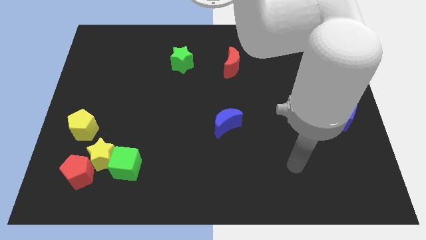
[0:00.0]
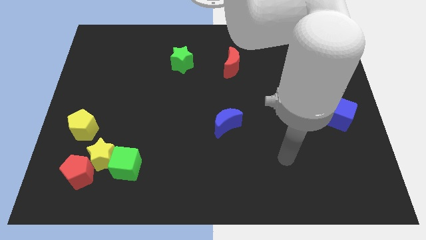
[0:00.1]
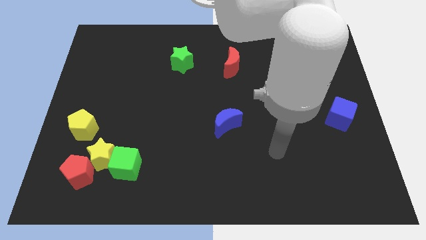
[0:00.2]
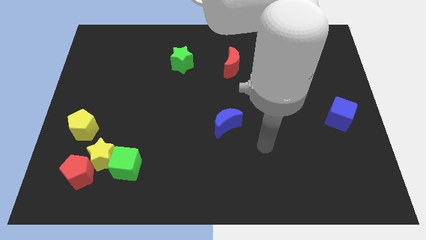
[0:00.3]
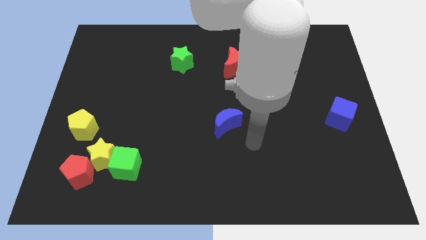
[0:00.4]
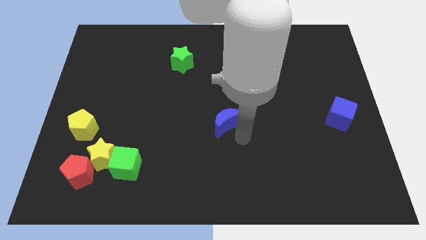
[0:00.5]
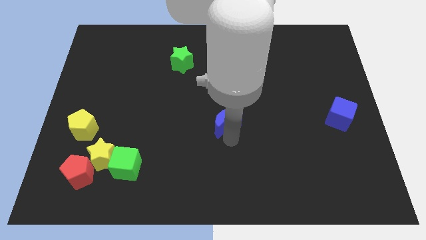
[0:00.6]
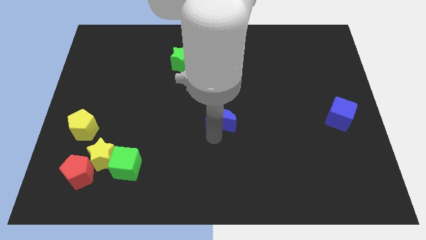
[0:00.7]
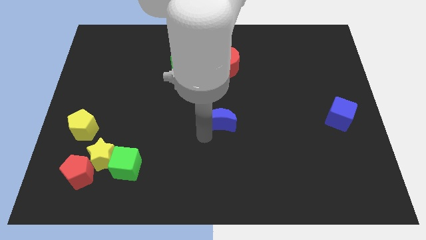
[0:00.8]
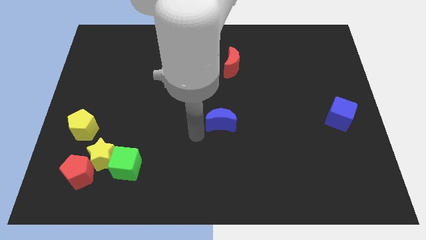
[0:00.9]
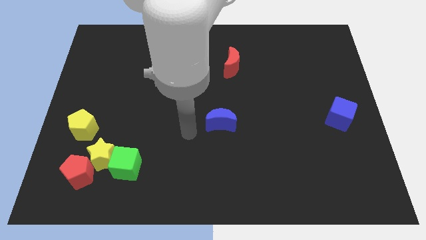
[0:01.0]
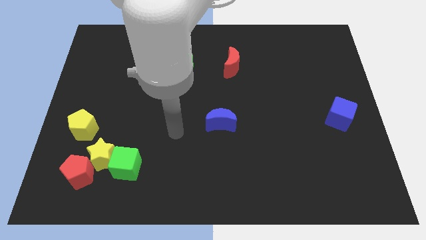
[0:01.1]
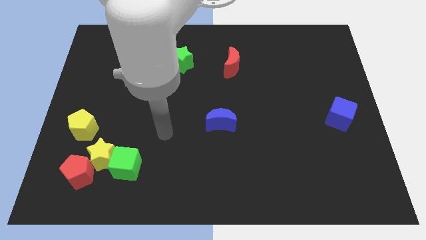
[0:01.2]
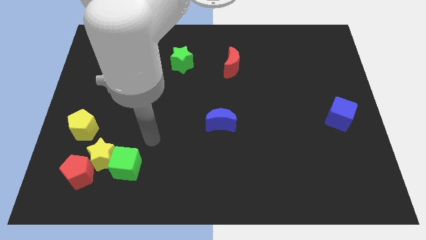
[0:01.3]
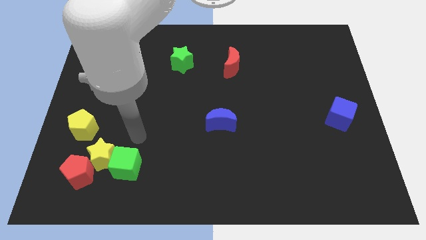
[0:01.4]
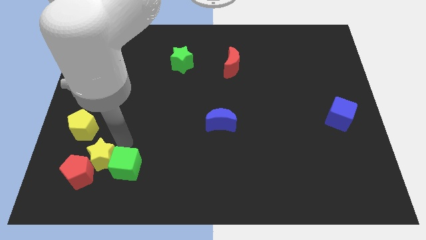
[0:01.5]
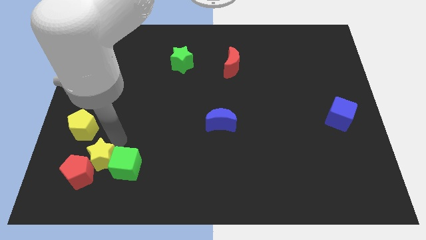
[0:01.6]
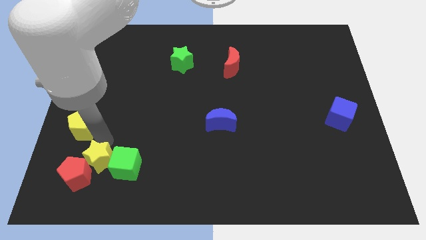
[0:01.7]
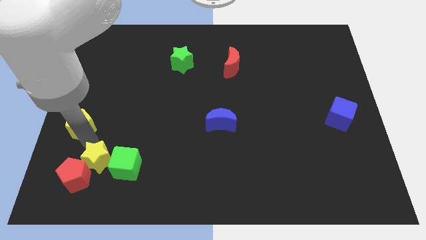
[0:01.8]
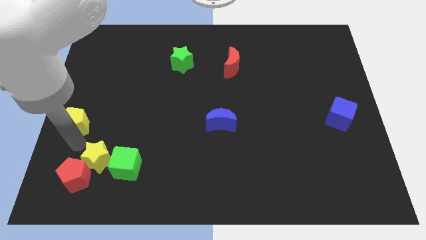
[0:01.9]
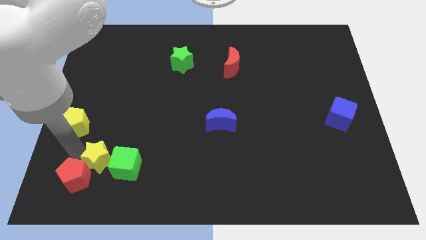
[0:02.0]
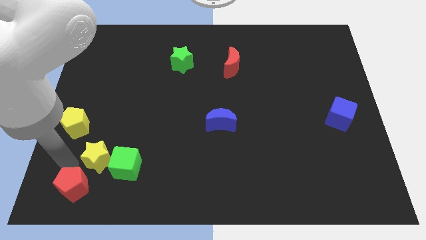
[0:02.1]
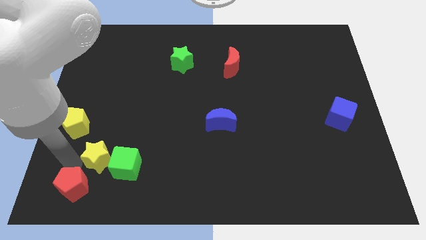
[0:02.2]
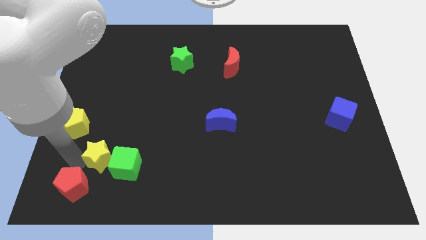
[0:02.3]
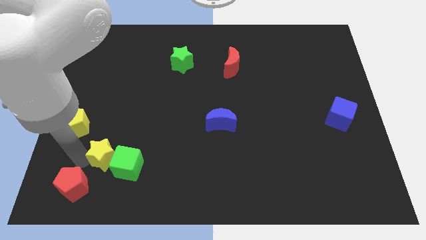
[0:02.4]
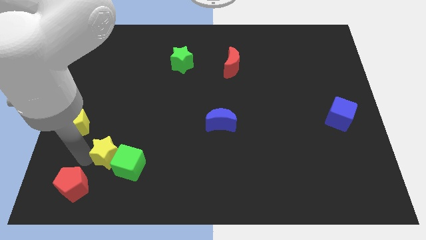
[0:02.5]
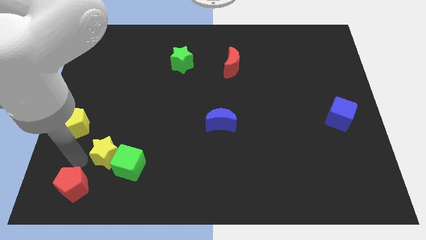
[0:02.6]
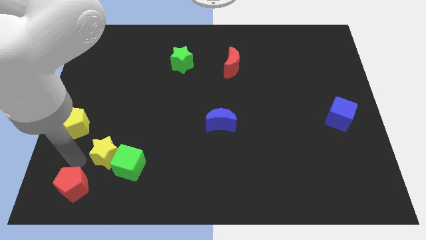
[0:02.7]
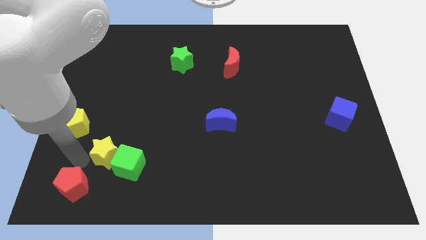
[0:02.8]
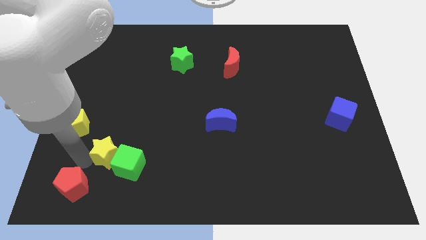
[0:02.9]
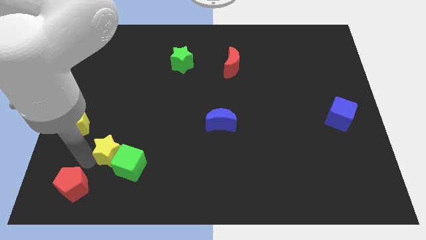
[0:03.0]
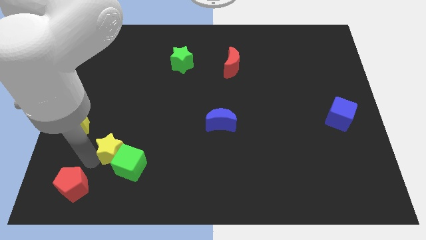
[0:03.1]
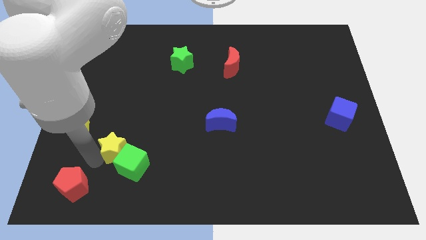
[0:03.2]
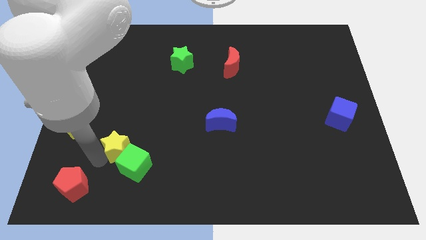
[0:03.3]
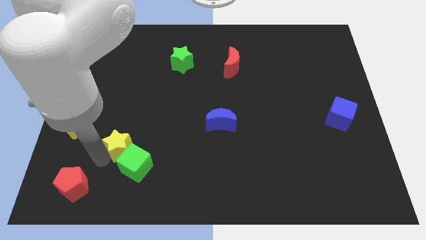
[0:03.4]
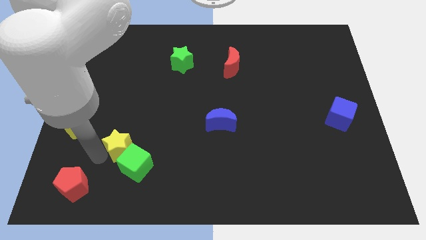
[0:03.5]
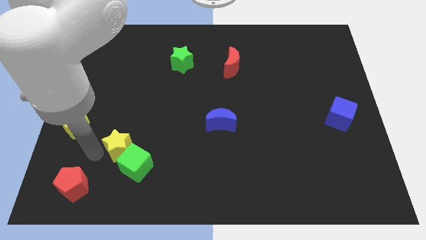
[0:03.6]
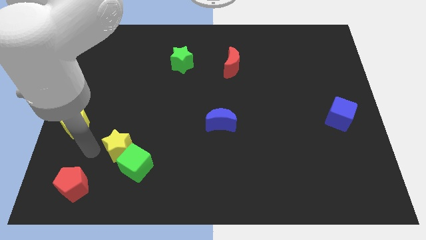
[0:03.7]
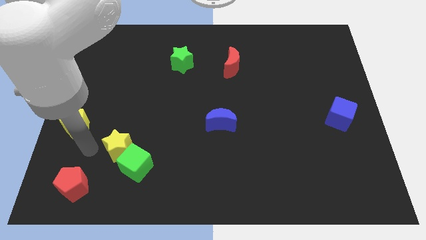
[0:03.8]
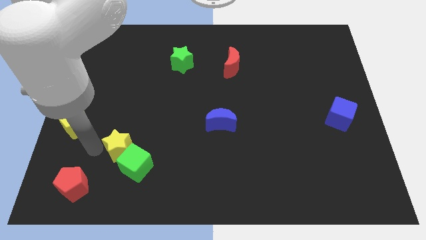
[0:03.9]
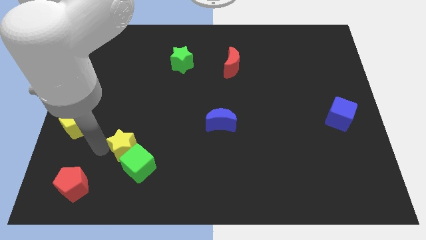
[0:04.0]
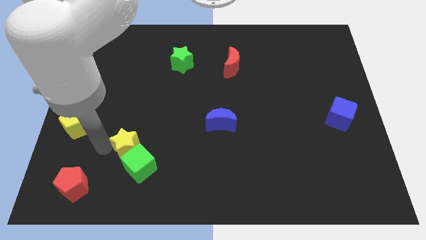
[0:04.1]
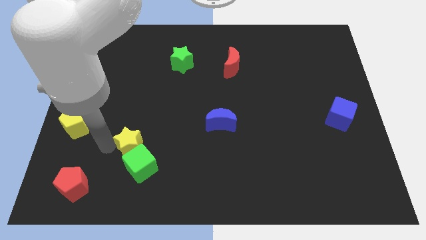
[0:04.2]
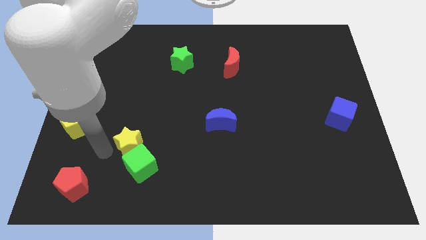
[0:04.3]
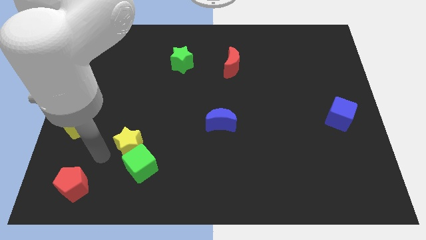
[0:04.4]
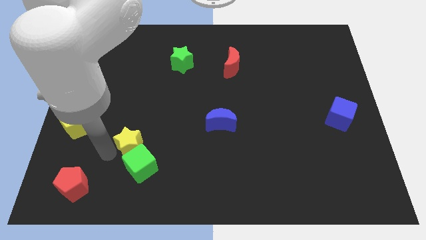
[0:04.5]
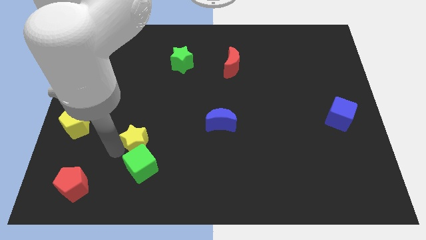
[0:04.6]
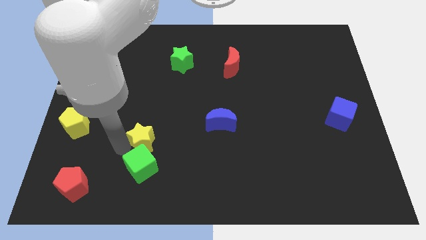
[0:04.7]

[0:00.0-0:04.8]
separate the yellow star from the group

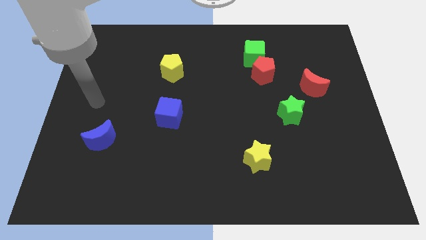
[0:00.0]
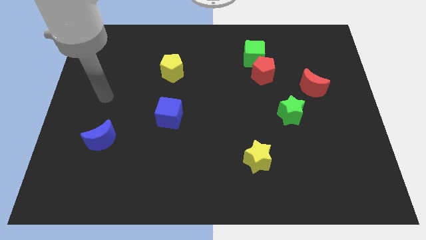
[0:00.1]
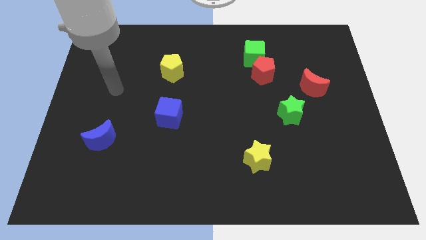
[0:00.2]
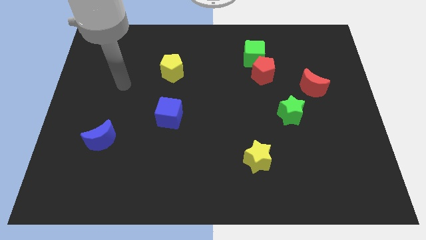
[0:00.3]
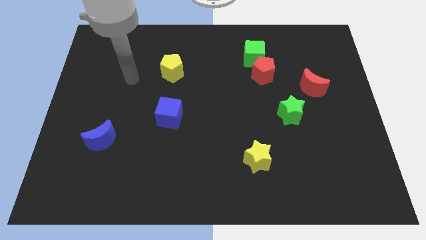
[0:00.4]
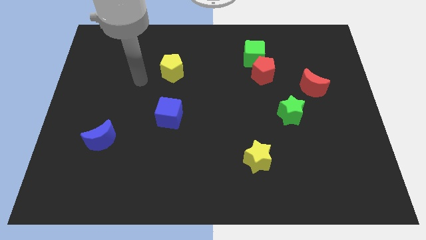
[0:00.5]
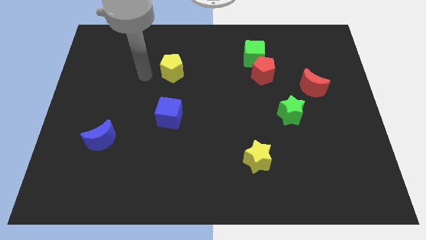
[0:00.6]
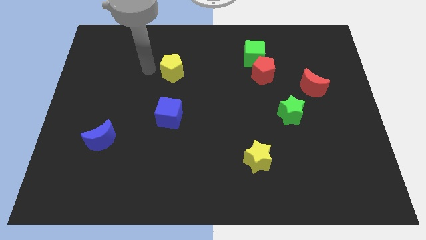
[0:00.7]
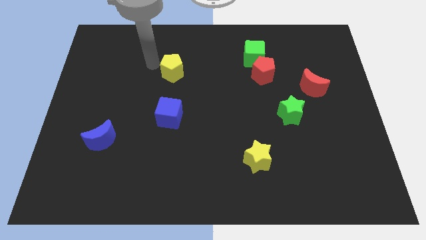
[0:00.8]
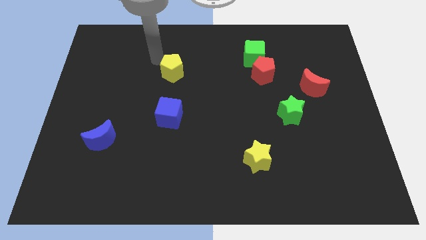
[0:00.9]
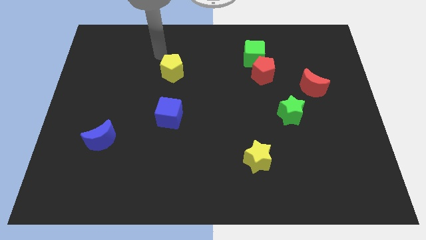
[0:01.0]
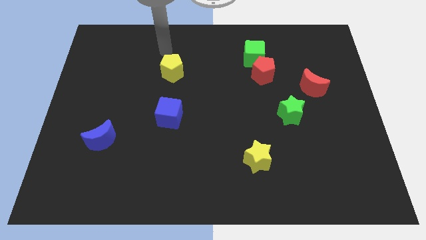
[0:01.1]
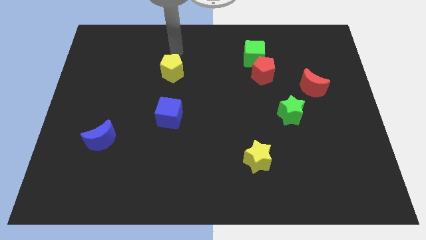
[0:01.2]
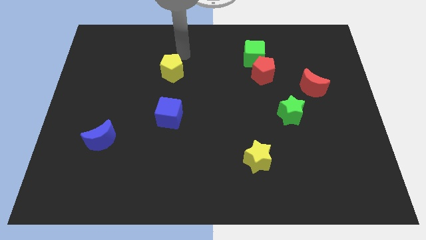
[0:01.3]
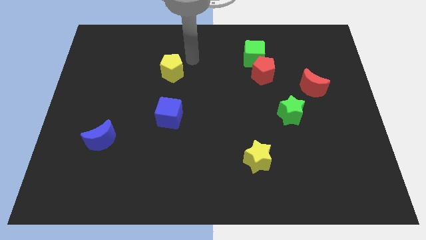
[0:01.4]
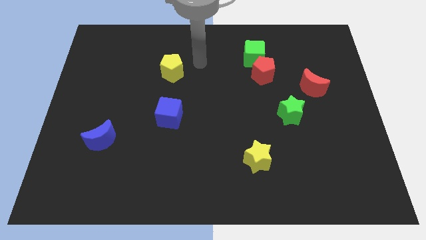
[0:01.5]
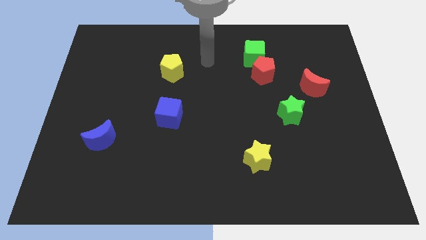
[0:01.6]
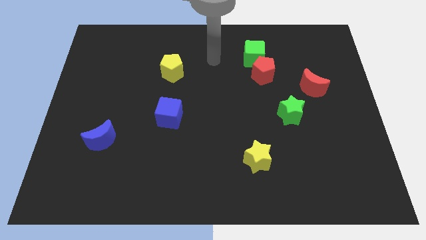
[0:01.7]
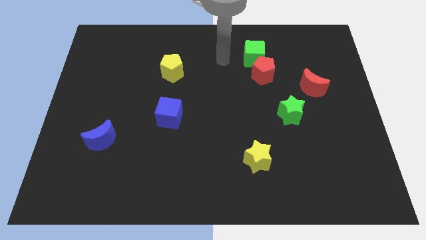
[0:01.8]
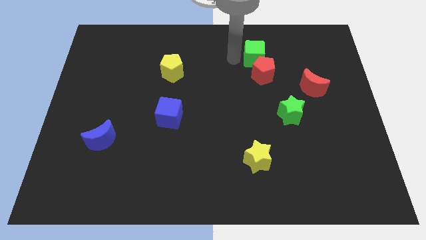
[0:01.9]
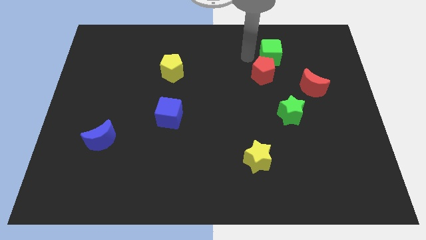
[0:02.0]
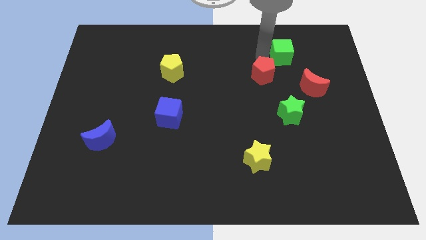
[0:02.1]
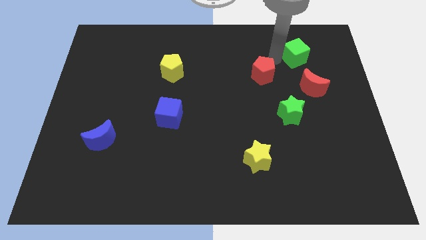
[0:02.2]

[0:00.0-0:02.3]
move the red pentagon away from the green cube

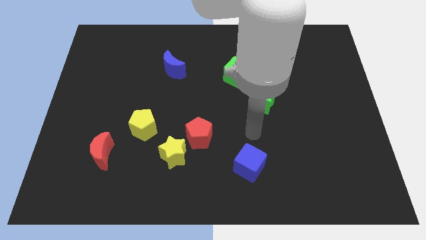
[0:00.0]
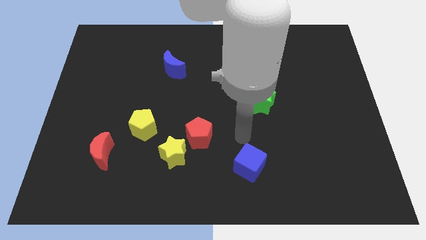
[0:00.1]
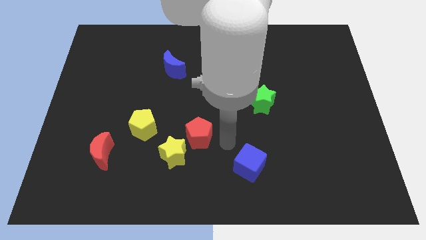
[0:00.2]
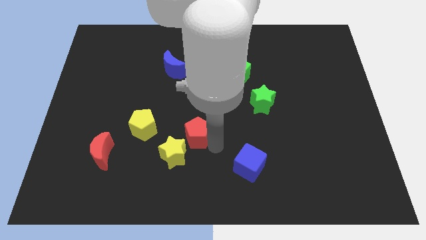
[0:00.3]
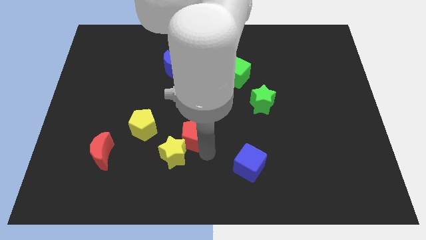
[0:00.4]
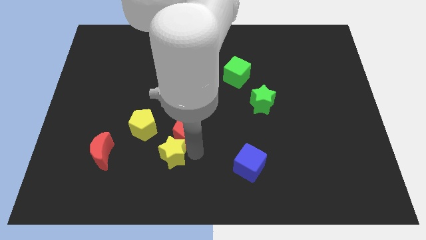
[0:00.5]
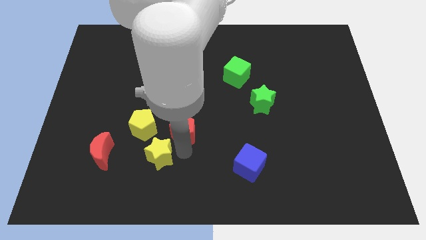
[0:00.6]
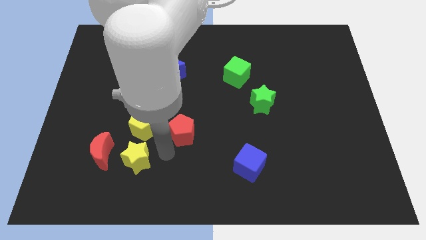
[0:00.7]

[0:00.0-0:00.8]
separate the red pentagon from the yellow star

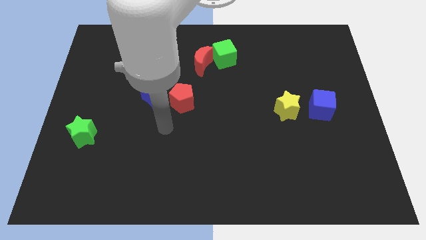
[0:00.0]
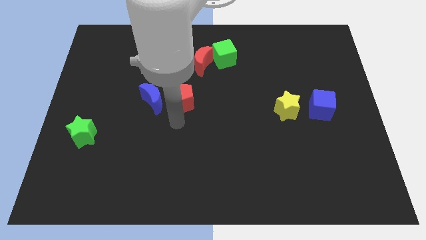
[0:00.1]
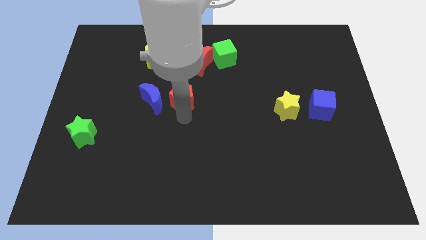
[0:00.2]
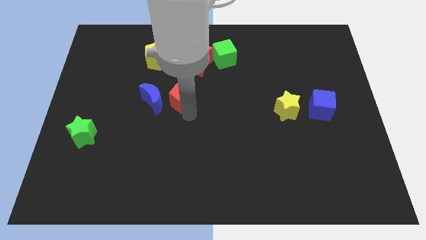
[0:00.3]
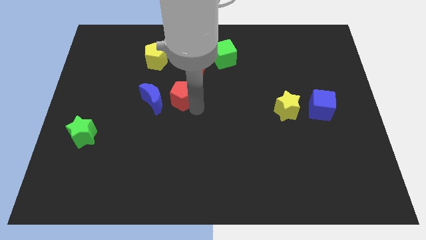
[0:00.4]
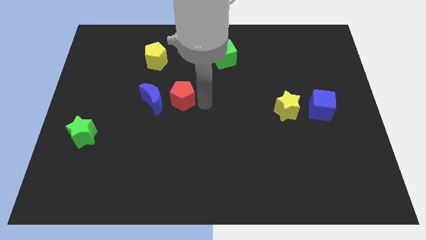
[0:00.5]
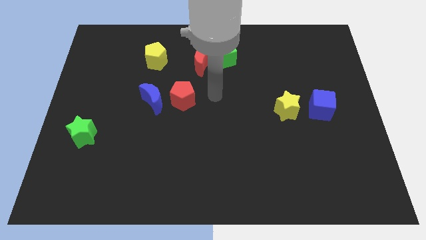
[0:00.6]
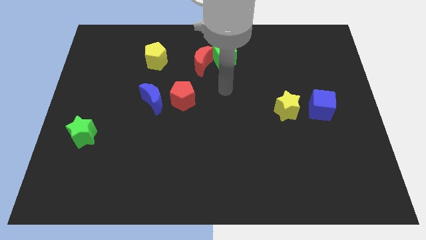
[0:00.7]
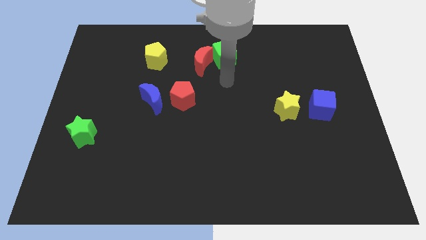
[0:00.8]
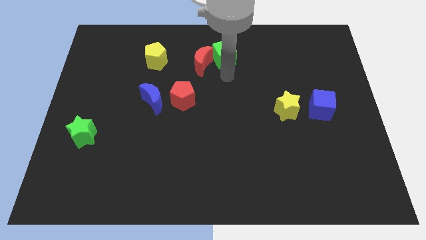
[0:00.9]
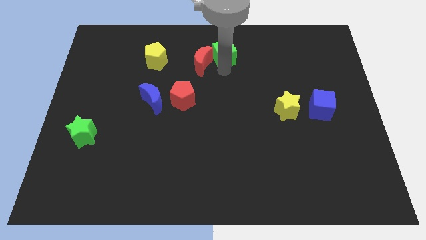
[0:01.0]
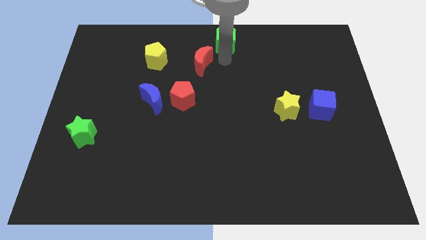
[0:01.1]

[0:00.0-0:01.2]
pull the red moon apart from the green cube

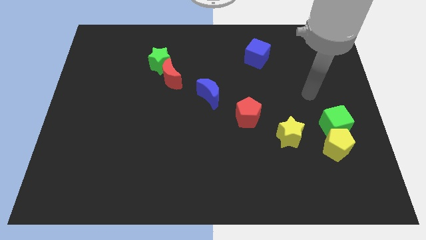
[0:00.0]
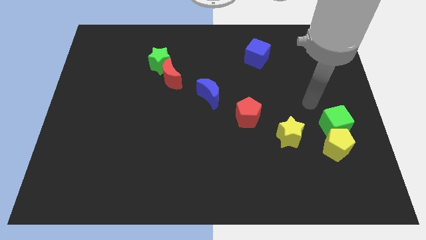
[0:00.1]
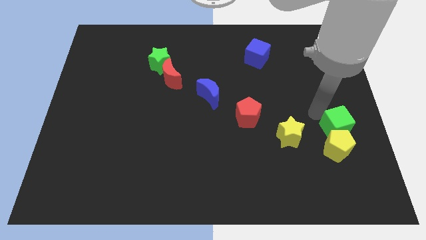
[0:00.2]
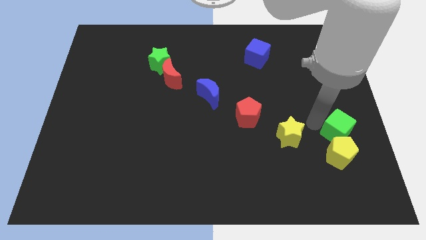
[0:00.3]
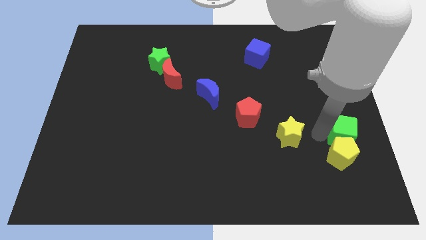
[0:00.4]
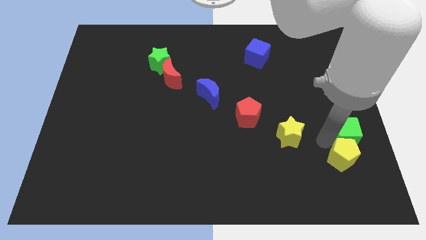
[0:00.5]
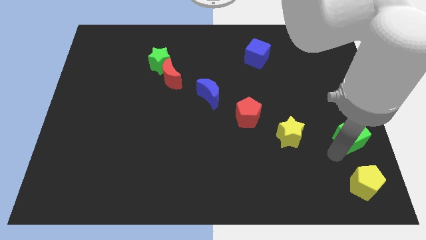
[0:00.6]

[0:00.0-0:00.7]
separate the green cube from the yellow pentagon
